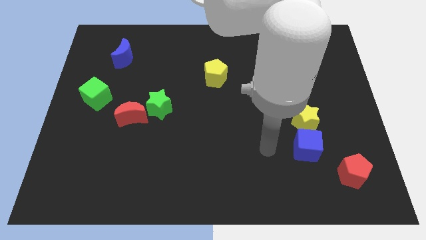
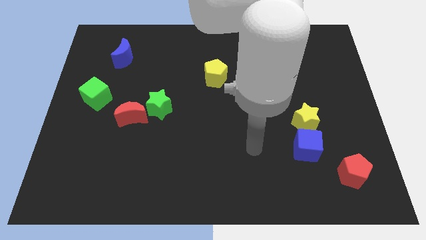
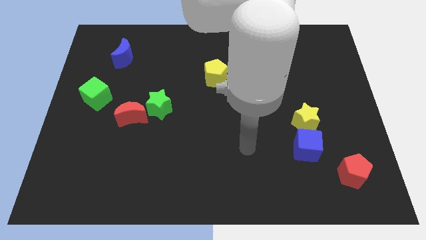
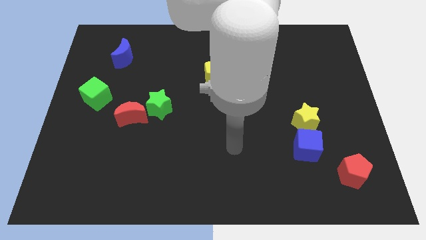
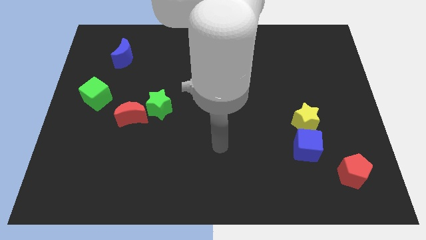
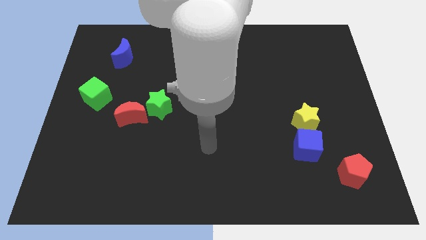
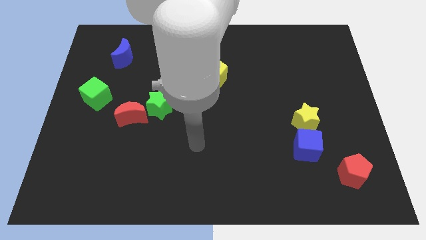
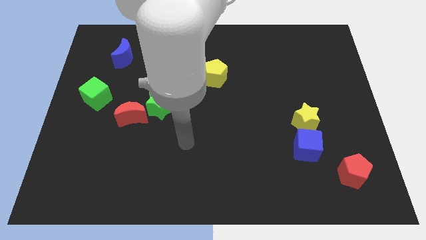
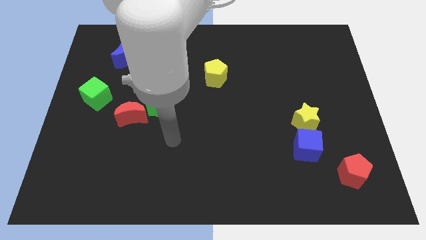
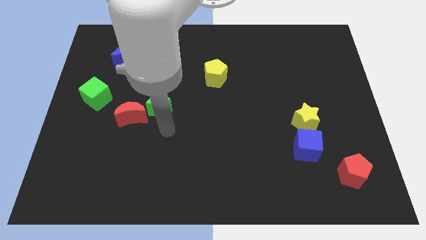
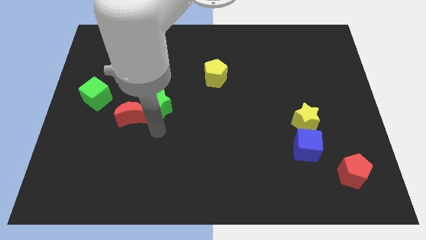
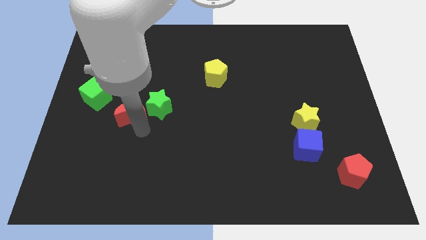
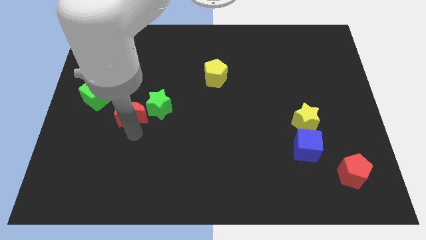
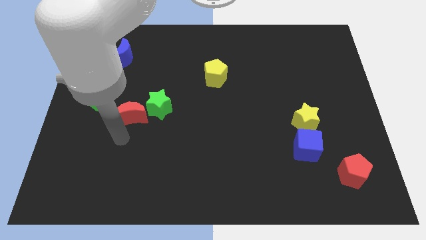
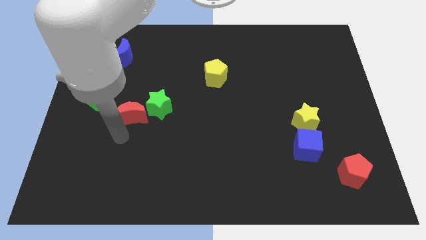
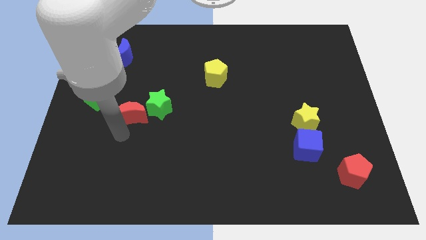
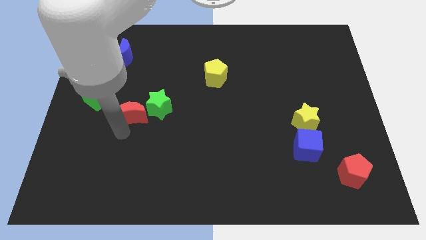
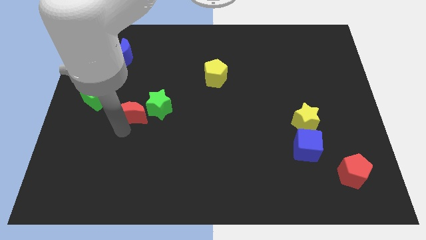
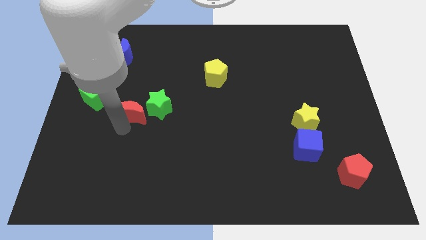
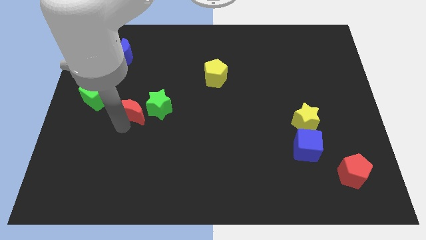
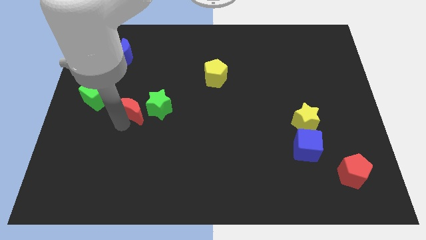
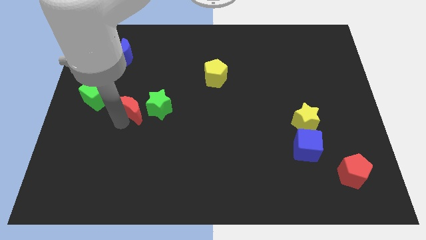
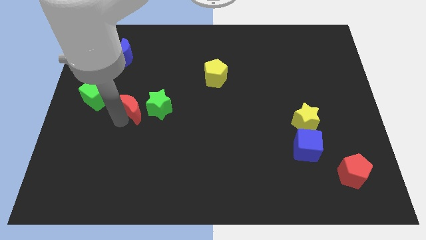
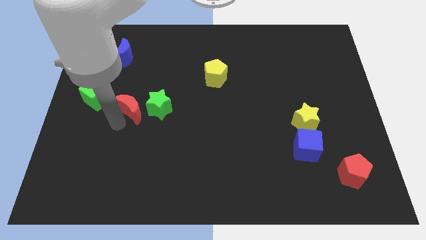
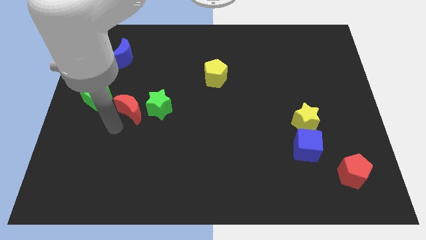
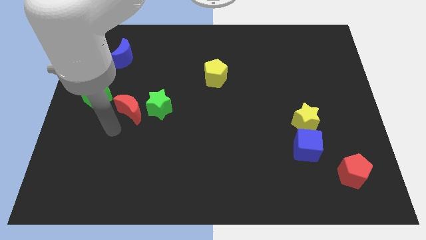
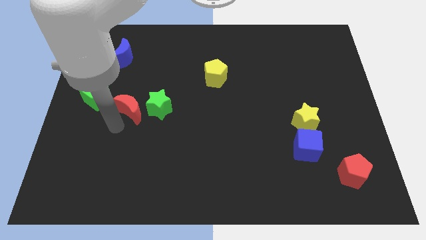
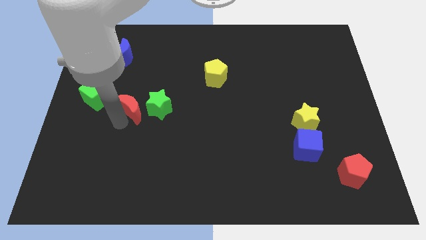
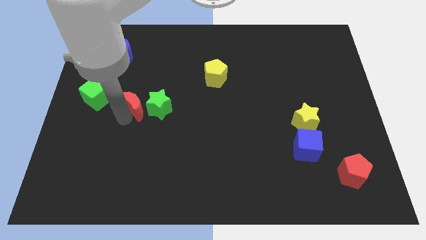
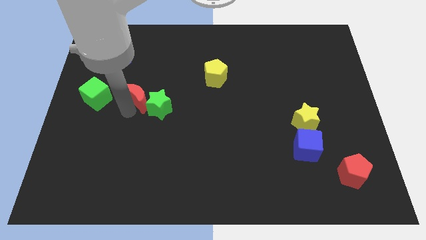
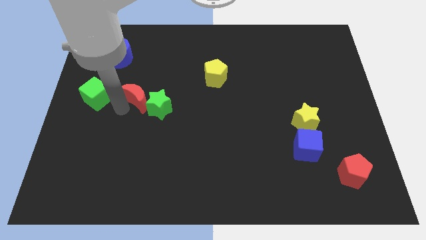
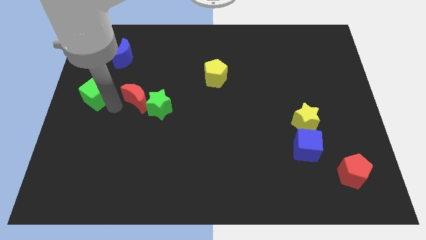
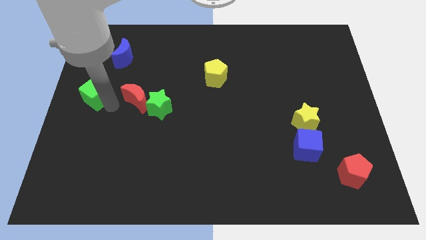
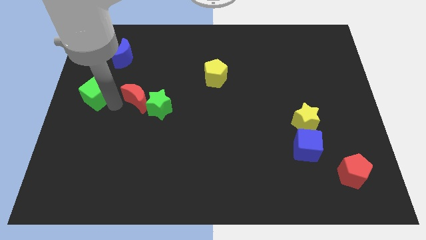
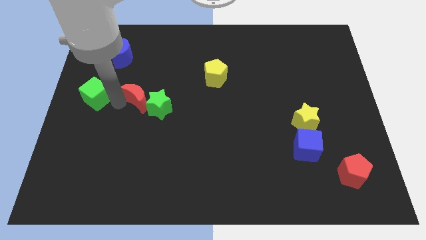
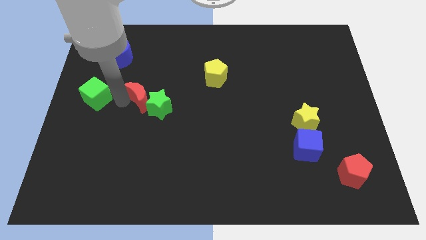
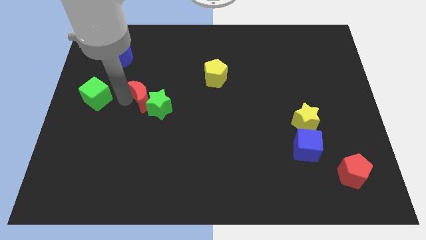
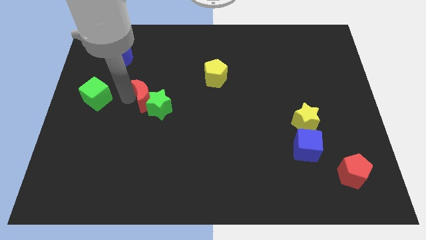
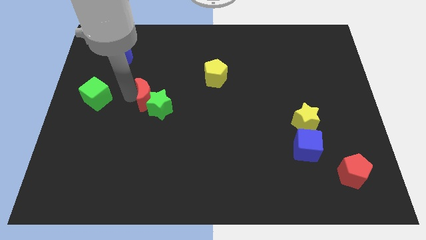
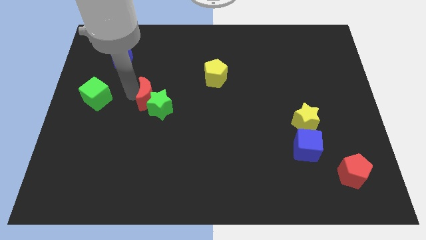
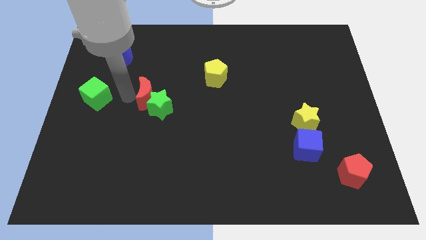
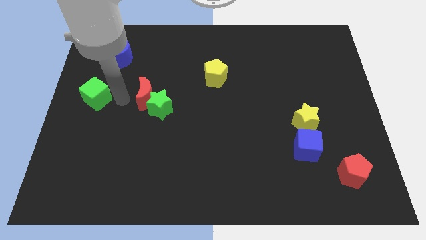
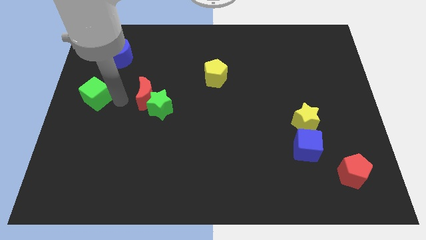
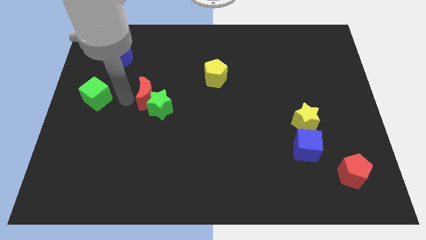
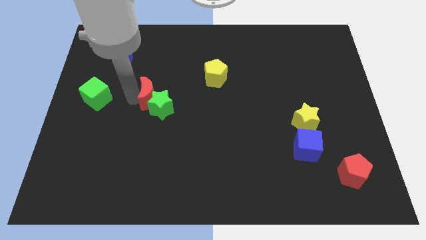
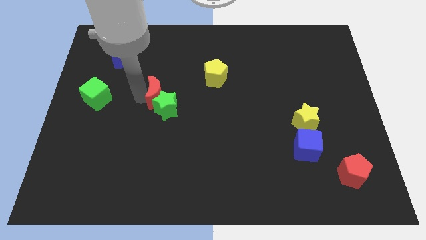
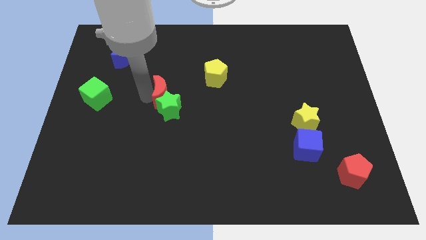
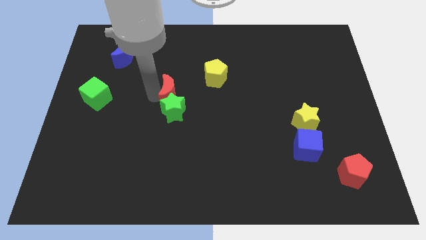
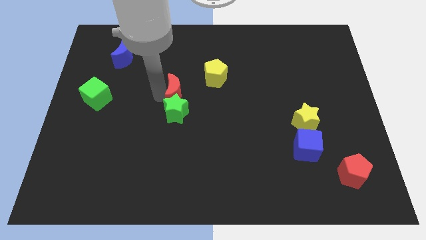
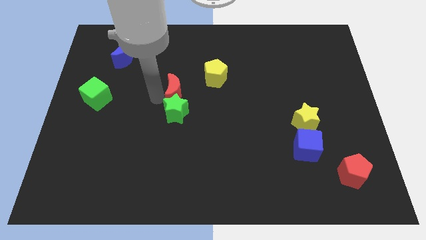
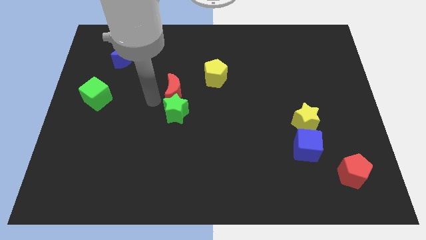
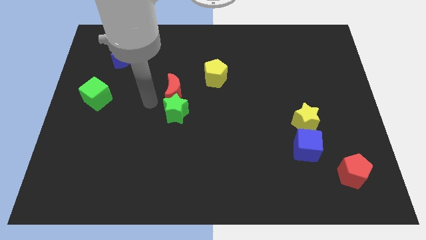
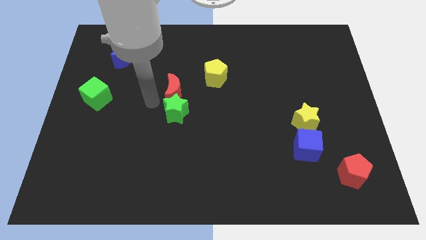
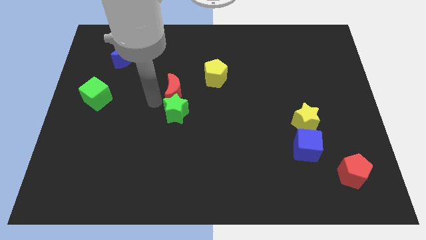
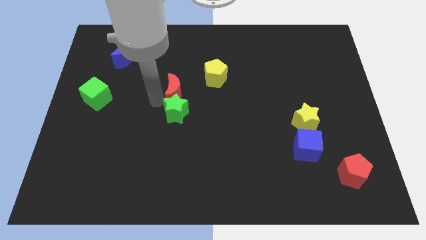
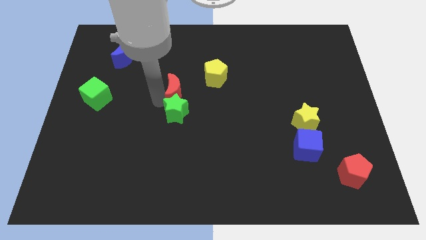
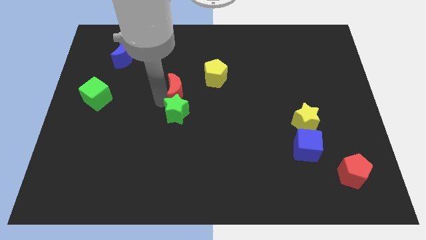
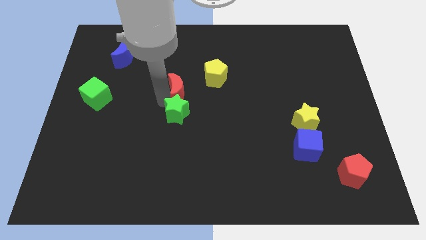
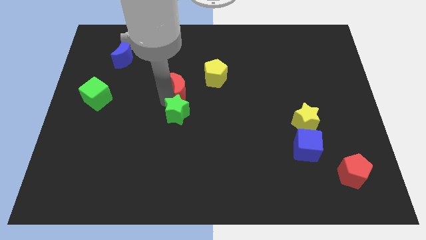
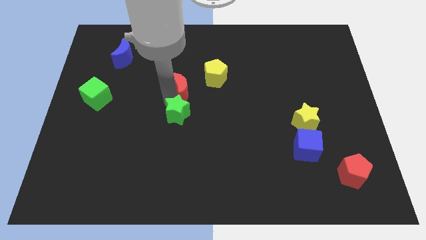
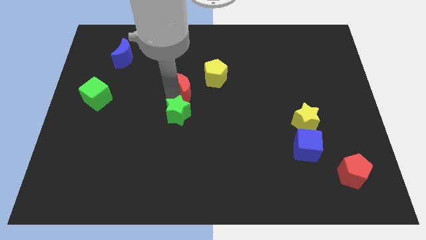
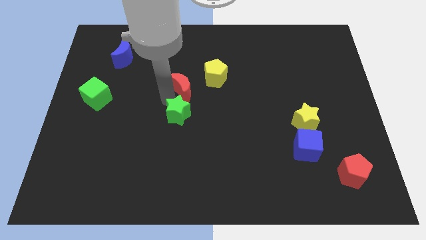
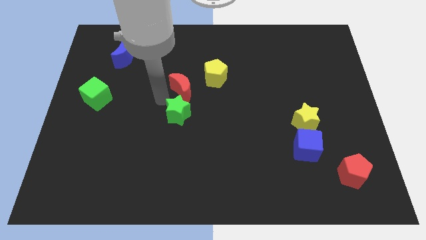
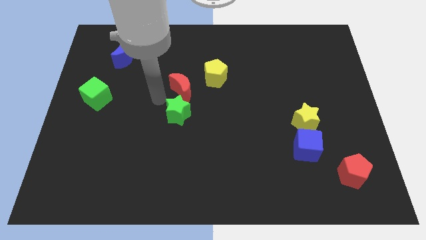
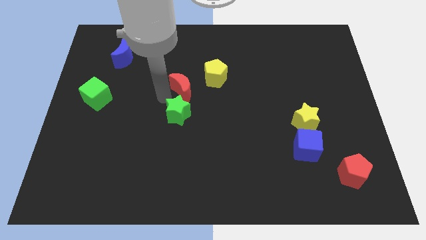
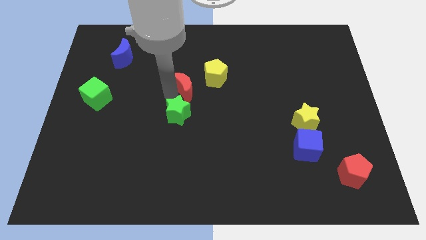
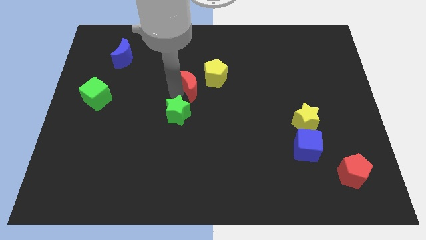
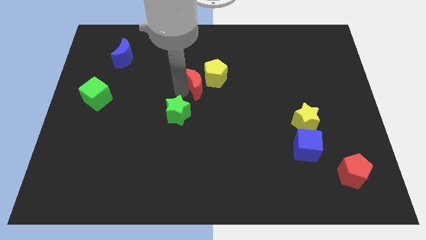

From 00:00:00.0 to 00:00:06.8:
slide the red moon next to the yellow pentagon

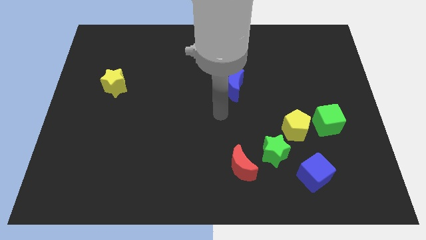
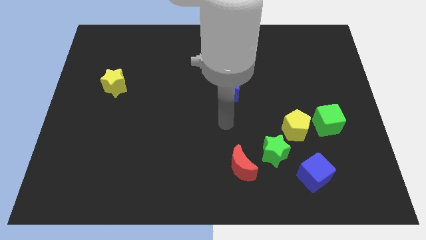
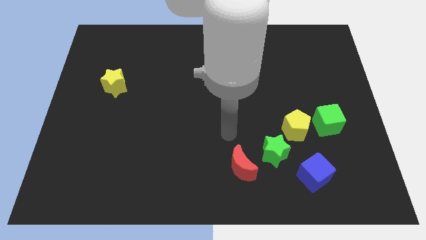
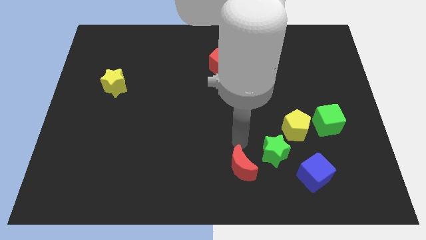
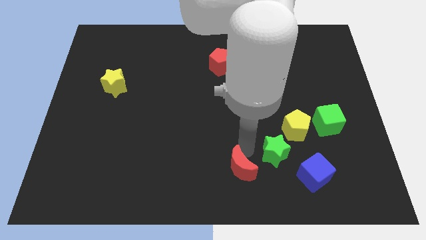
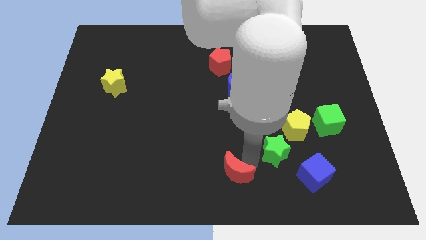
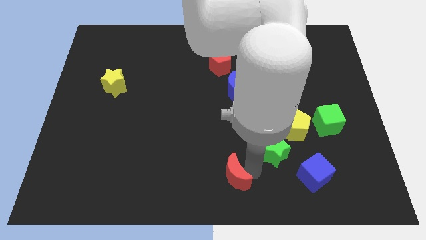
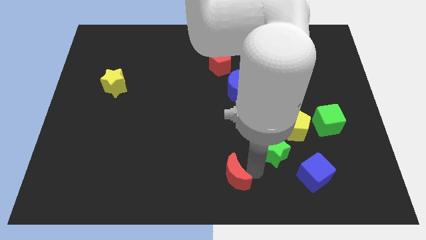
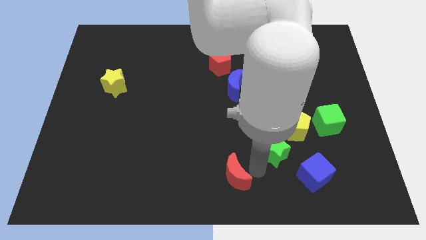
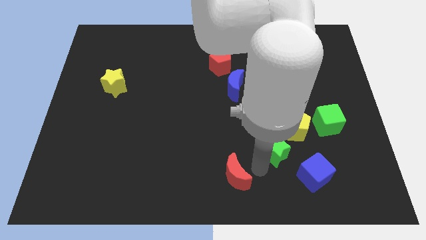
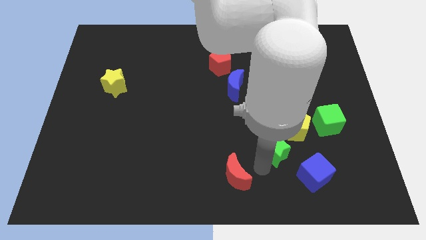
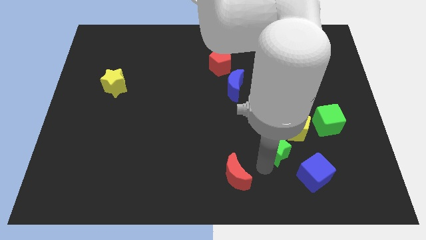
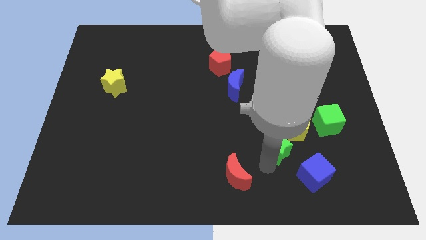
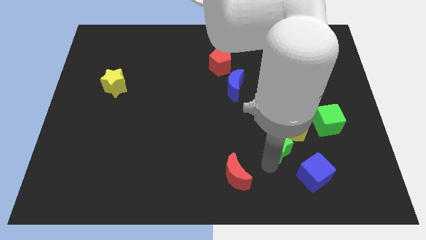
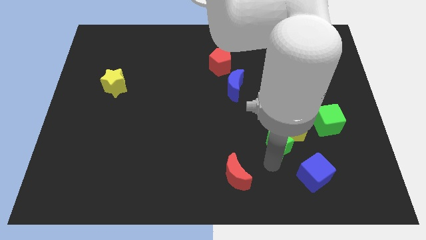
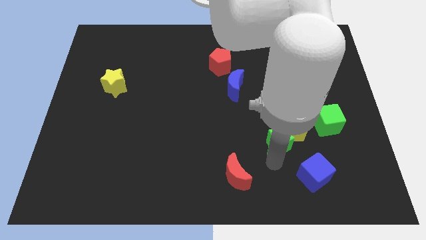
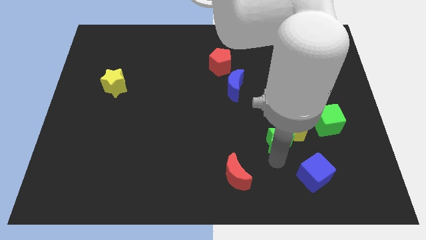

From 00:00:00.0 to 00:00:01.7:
move the green star towards the yellow pentagon

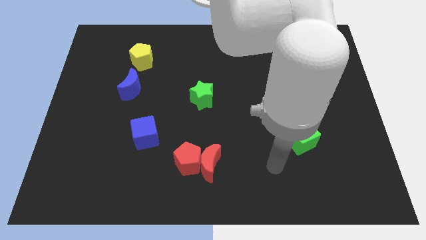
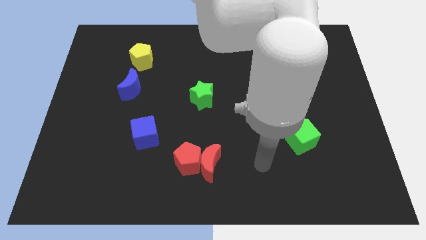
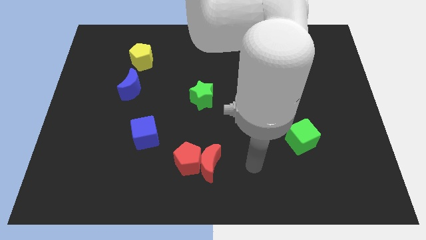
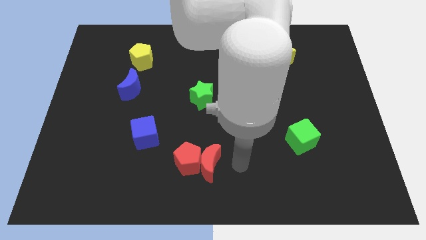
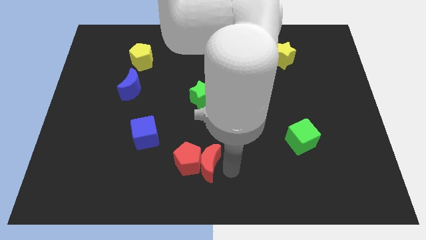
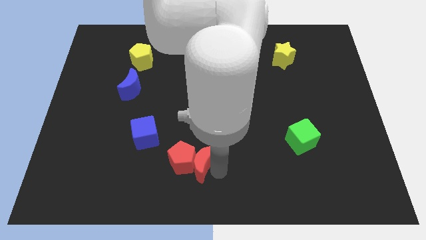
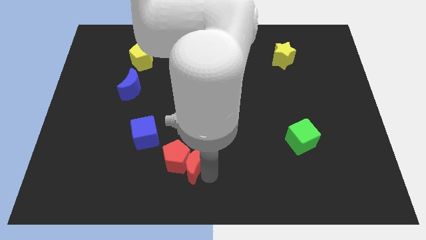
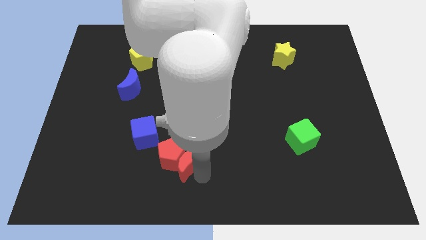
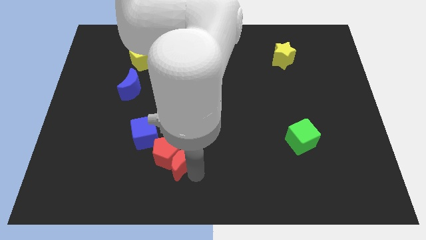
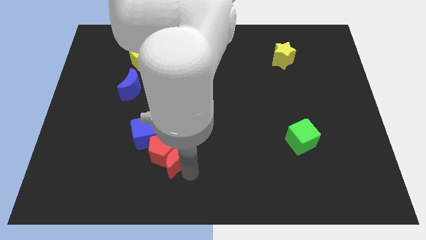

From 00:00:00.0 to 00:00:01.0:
put the red pentagon next to the blue cube
